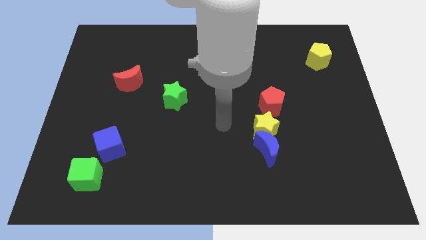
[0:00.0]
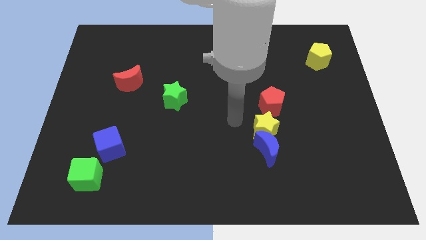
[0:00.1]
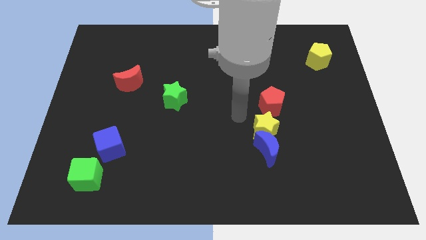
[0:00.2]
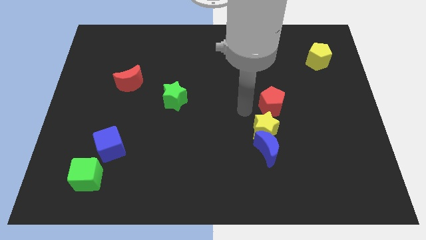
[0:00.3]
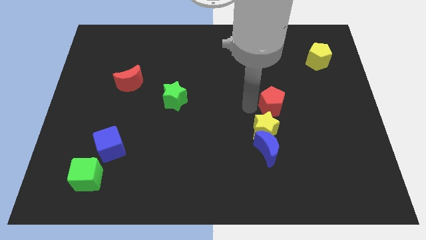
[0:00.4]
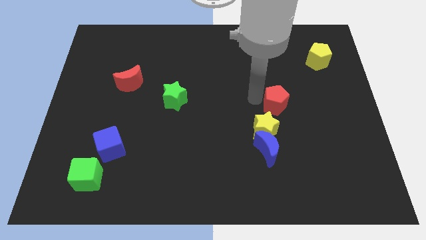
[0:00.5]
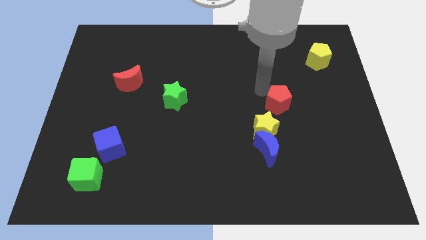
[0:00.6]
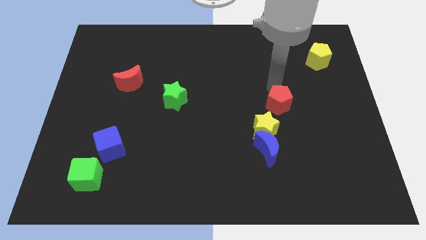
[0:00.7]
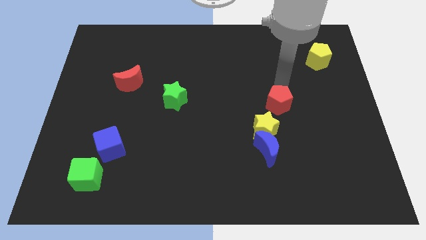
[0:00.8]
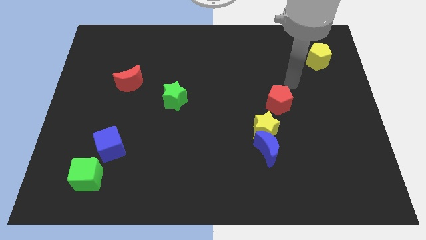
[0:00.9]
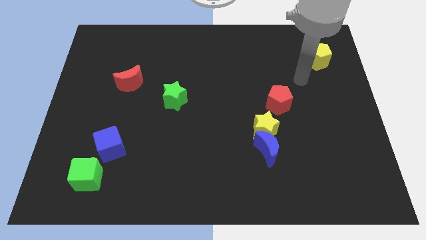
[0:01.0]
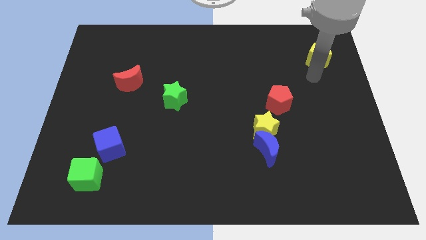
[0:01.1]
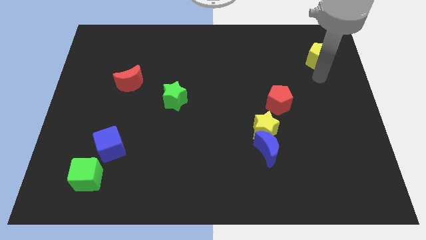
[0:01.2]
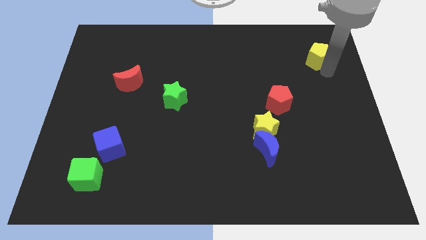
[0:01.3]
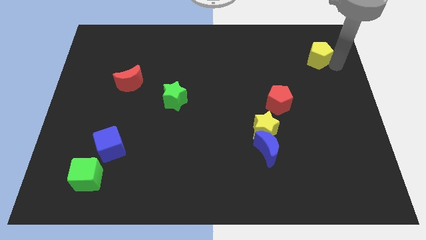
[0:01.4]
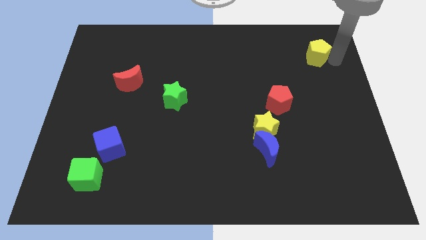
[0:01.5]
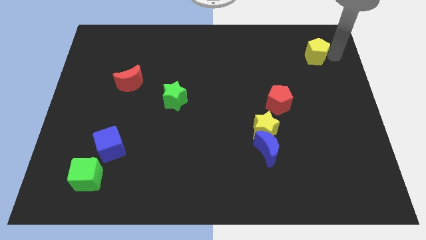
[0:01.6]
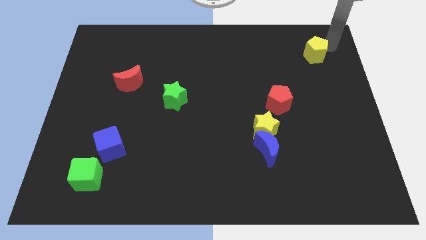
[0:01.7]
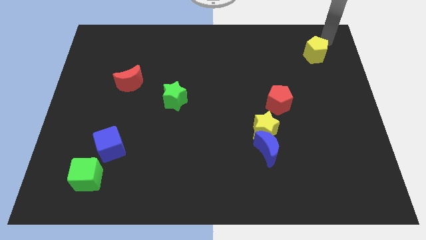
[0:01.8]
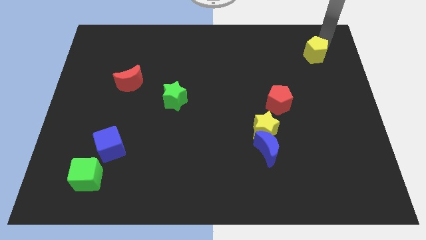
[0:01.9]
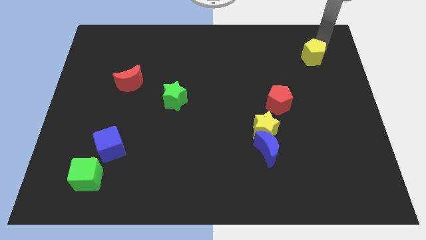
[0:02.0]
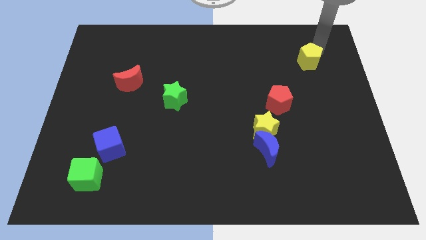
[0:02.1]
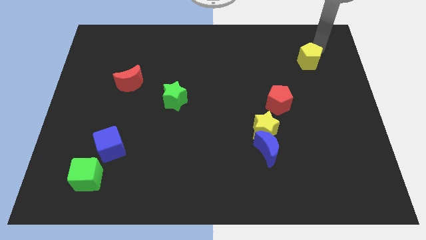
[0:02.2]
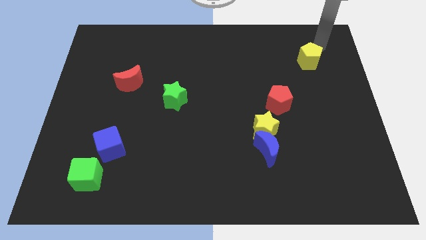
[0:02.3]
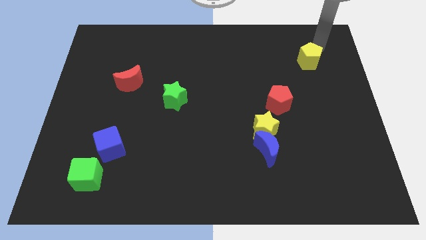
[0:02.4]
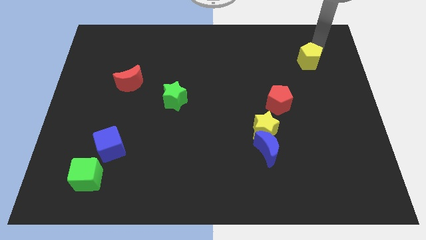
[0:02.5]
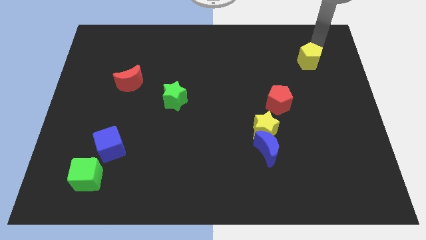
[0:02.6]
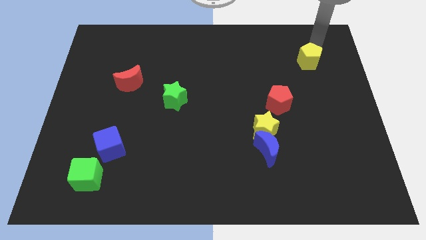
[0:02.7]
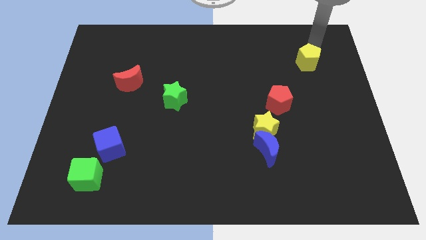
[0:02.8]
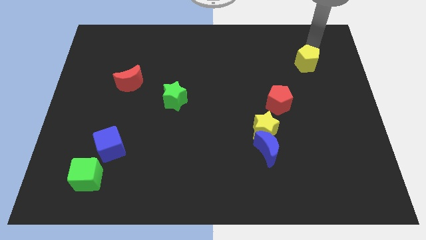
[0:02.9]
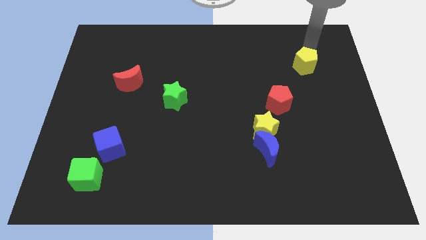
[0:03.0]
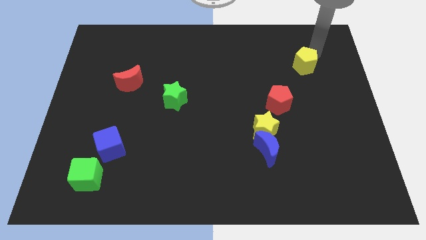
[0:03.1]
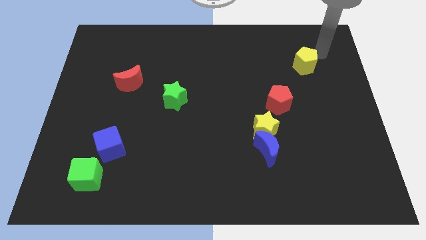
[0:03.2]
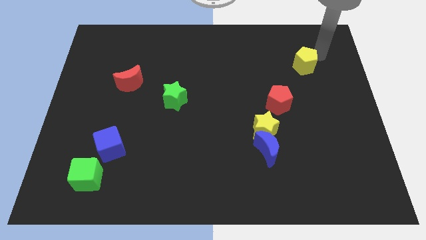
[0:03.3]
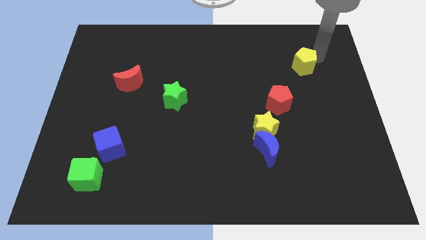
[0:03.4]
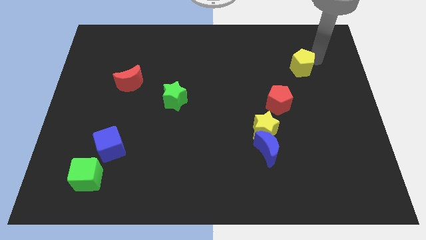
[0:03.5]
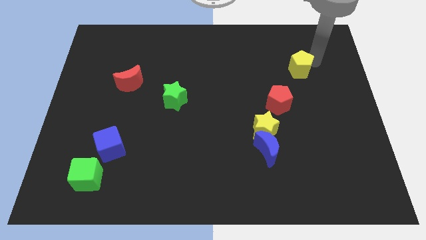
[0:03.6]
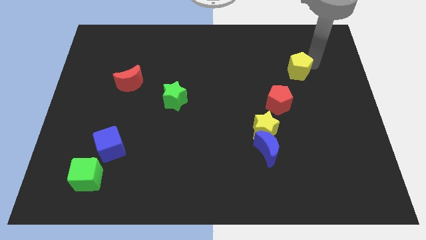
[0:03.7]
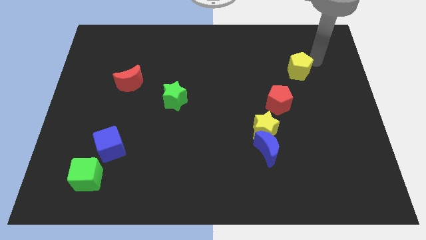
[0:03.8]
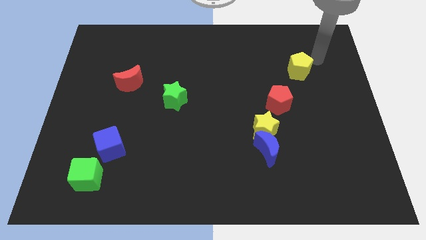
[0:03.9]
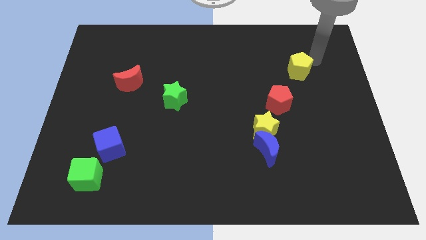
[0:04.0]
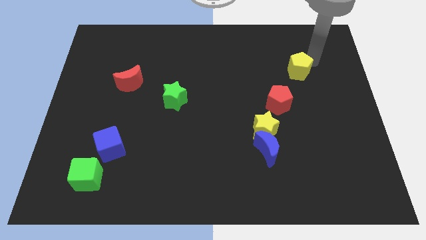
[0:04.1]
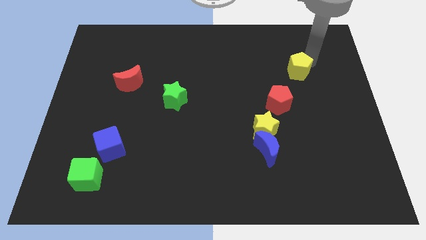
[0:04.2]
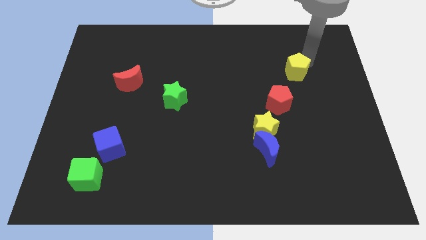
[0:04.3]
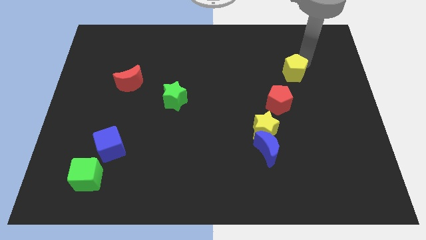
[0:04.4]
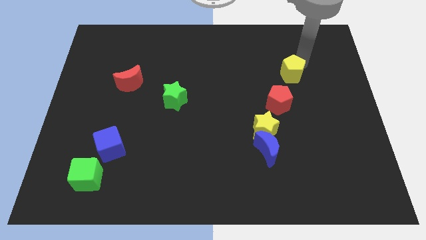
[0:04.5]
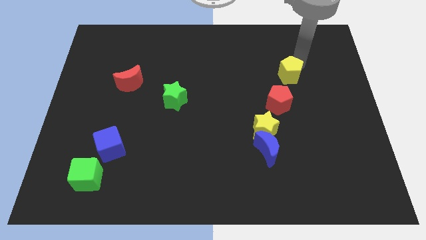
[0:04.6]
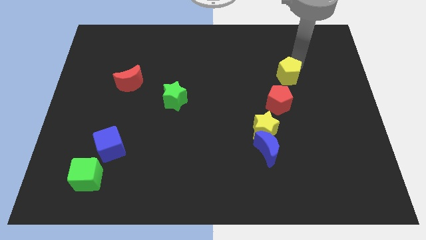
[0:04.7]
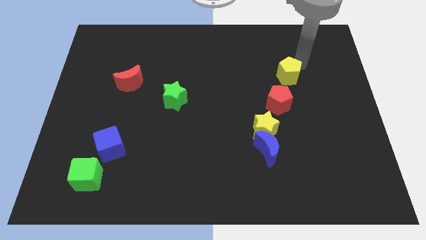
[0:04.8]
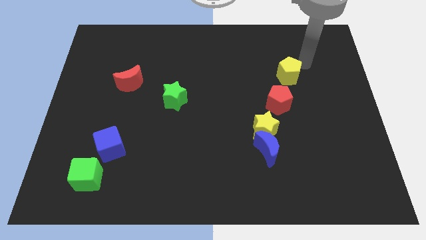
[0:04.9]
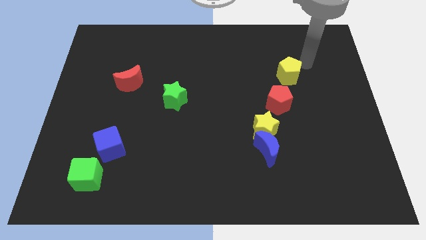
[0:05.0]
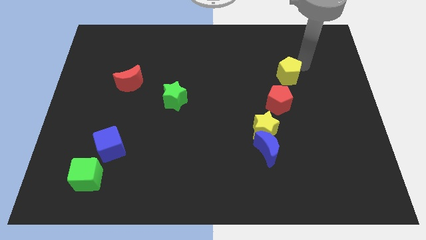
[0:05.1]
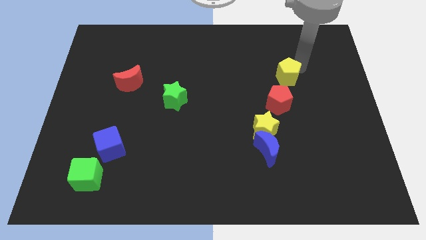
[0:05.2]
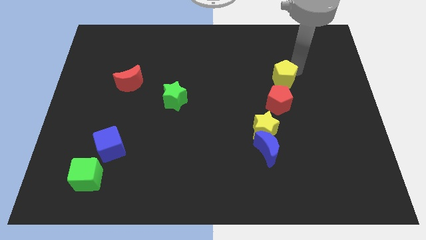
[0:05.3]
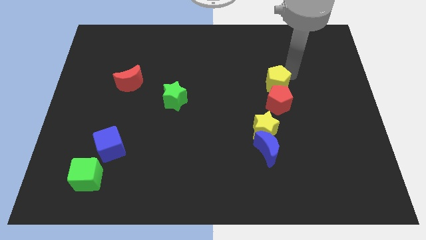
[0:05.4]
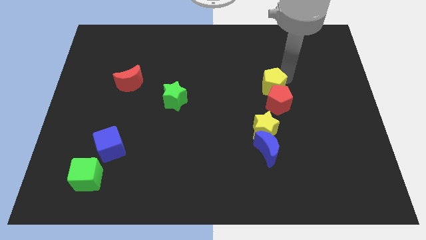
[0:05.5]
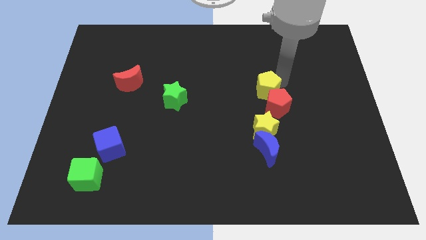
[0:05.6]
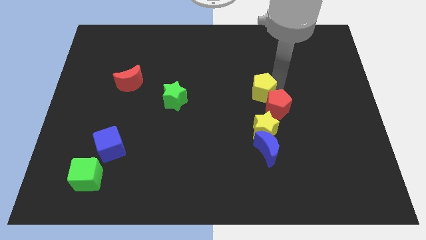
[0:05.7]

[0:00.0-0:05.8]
push the yellow pentagon to the center
